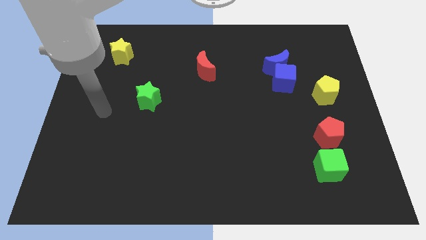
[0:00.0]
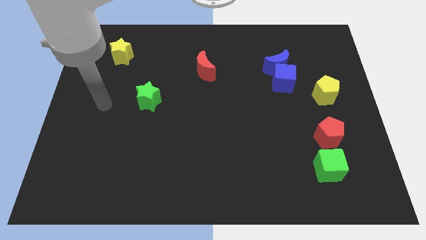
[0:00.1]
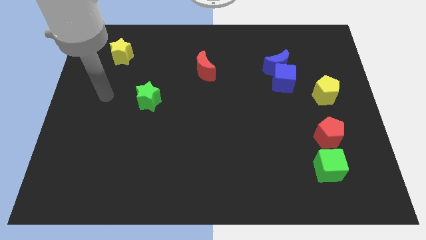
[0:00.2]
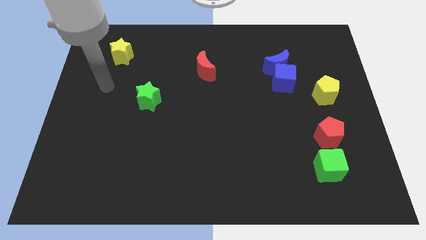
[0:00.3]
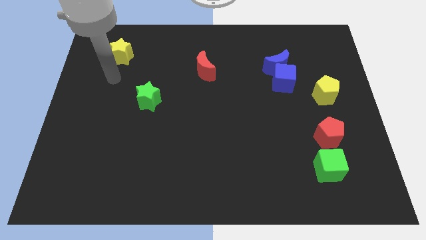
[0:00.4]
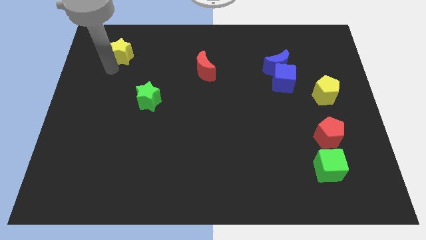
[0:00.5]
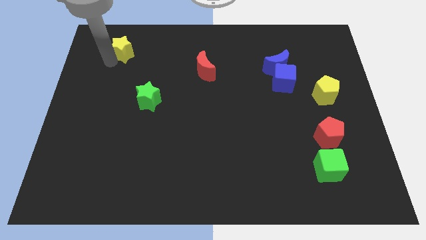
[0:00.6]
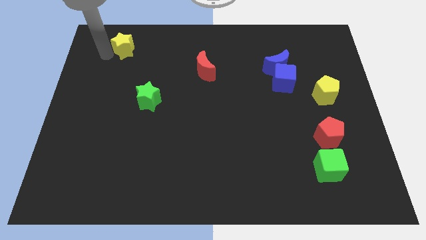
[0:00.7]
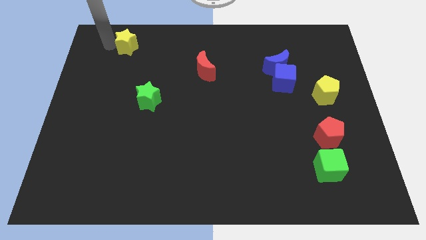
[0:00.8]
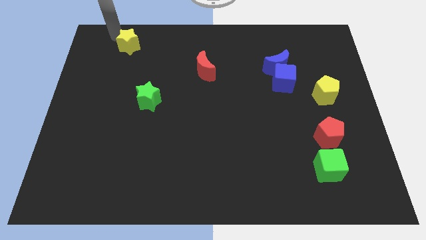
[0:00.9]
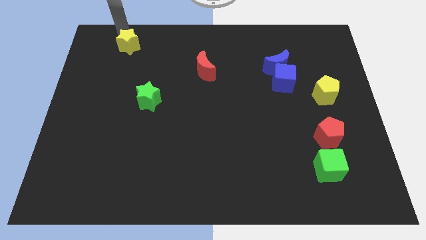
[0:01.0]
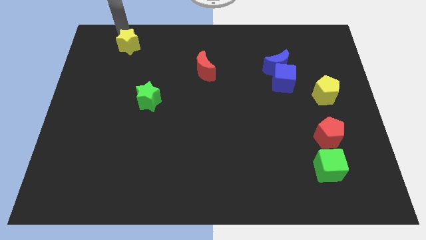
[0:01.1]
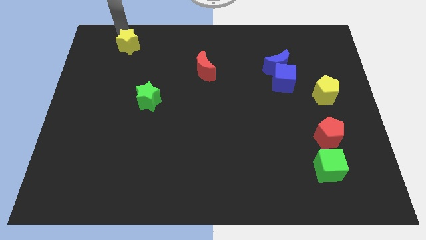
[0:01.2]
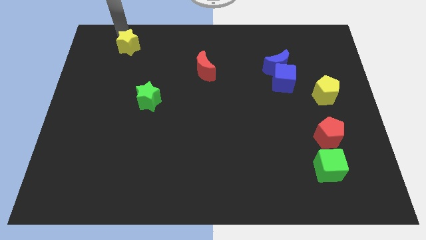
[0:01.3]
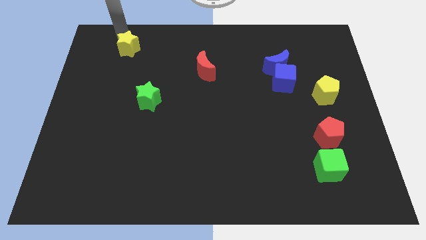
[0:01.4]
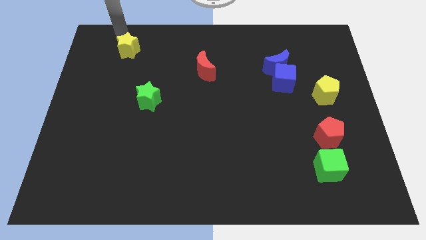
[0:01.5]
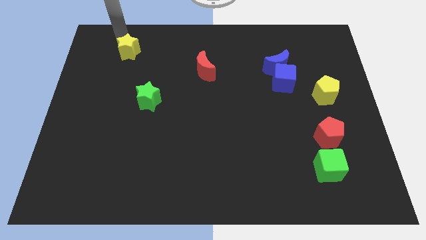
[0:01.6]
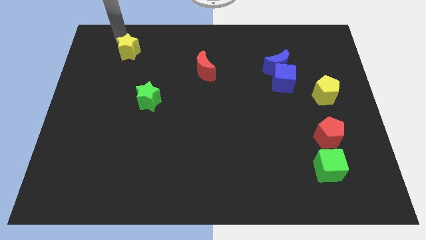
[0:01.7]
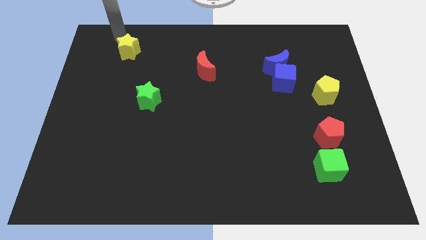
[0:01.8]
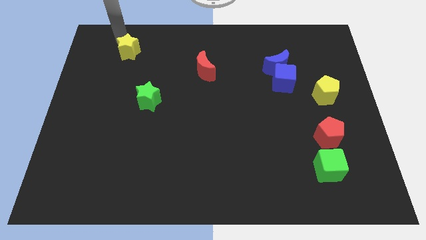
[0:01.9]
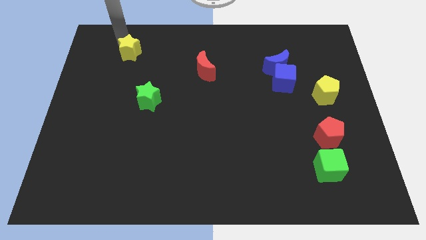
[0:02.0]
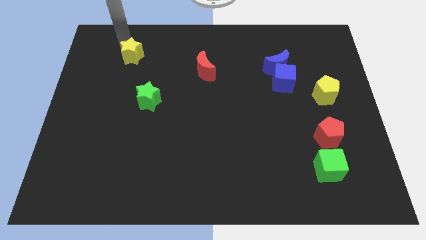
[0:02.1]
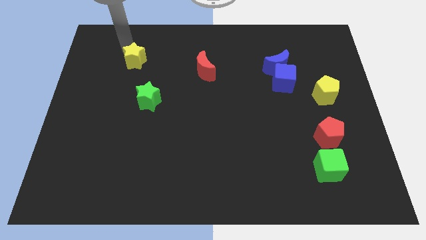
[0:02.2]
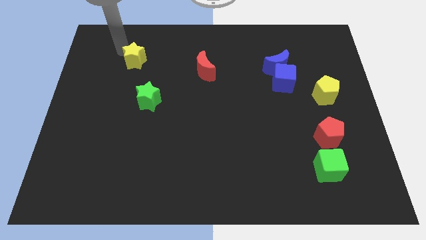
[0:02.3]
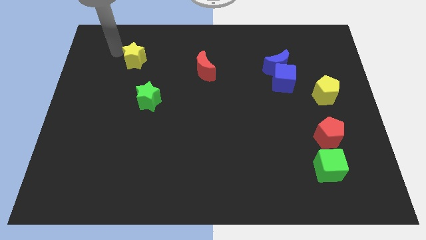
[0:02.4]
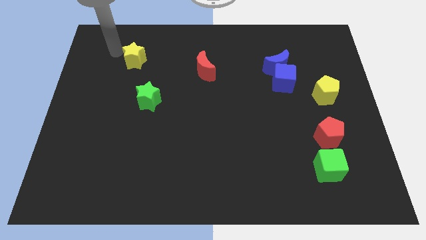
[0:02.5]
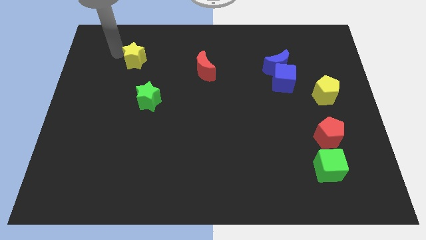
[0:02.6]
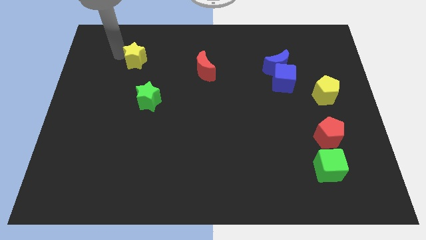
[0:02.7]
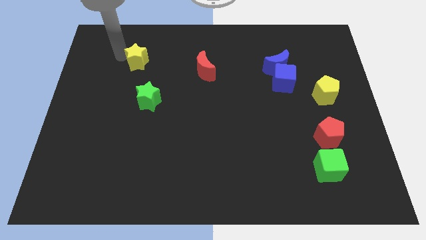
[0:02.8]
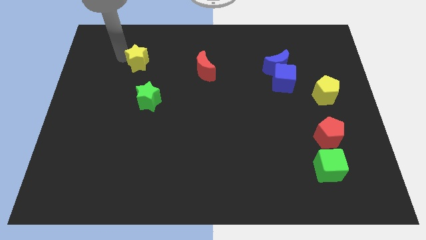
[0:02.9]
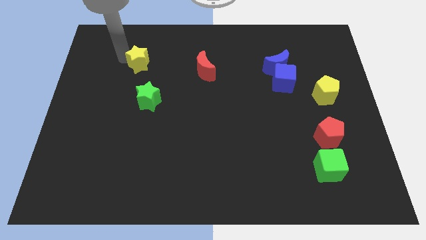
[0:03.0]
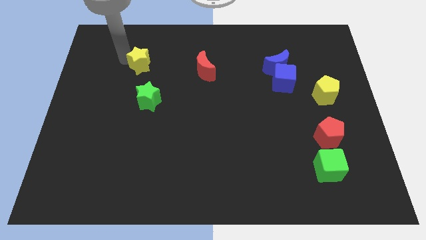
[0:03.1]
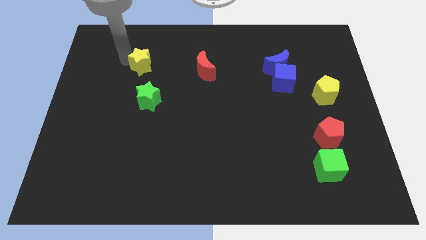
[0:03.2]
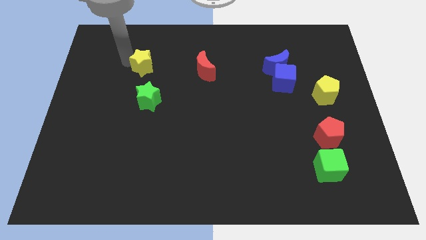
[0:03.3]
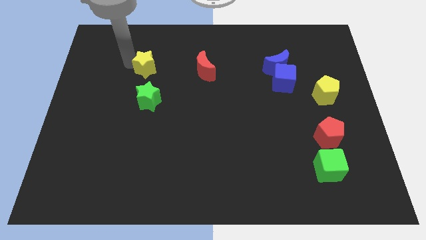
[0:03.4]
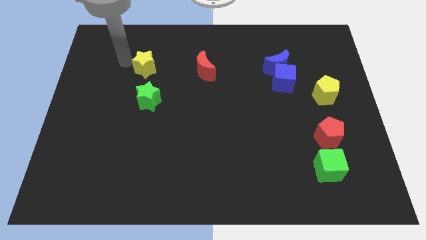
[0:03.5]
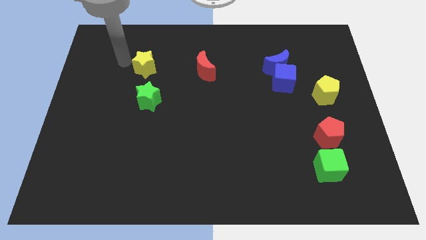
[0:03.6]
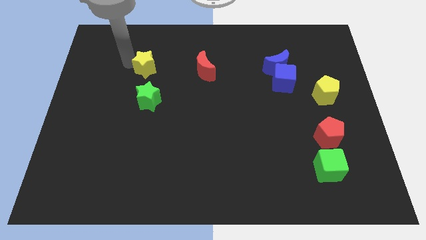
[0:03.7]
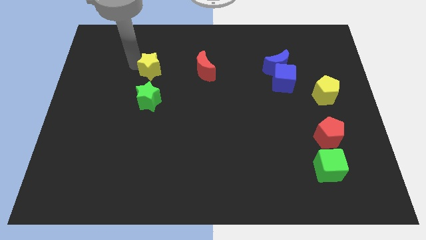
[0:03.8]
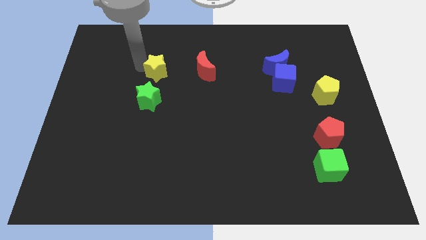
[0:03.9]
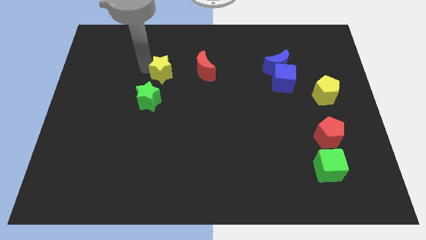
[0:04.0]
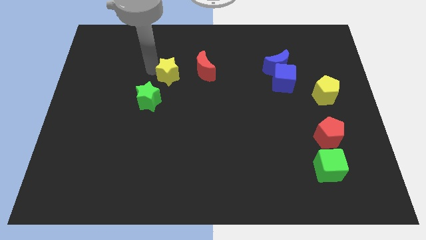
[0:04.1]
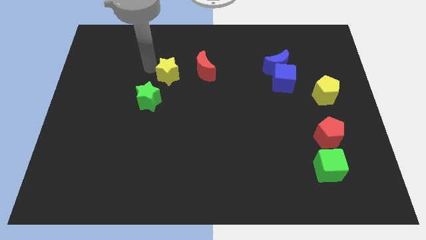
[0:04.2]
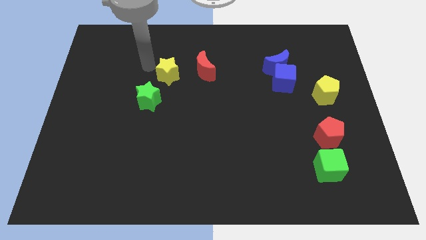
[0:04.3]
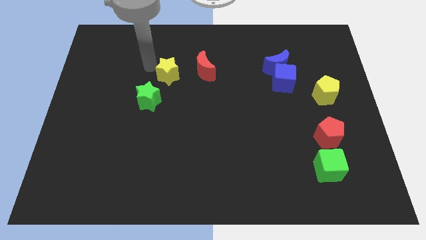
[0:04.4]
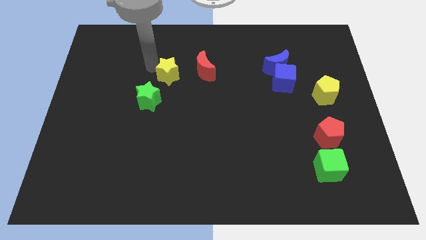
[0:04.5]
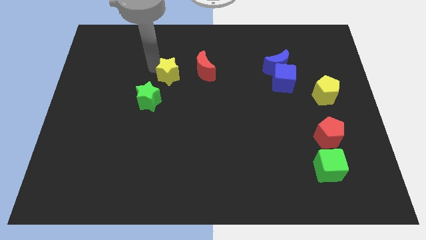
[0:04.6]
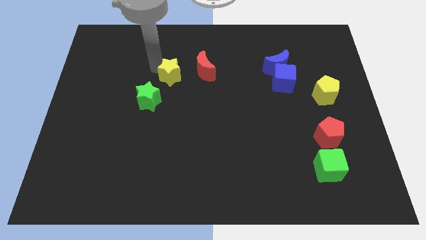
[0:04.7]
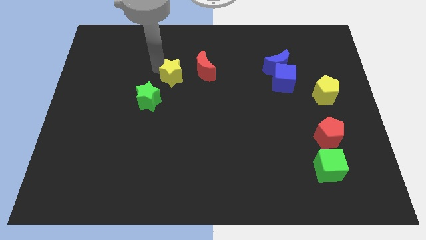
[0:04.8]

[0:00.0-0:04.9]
slide the yellow star to the center of the board

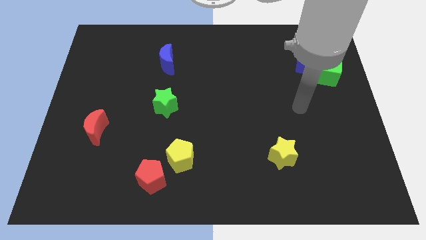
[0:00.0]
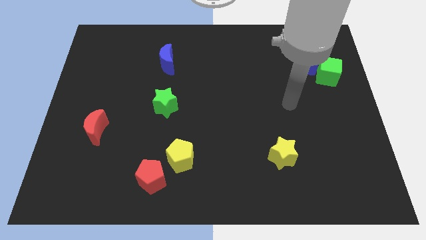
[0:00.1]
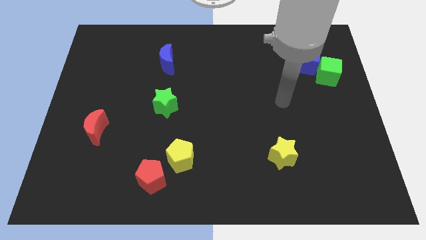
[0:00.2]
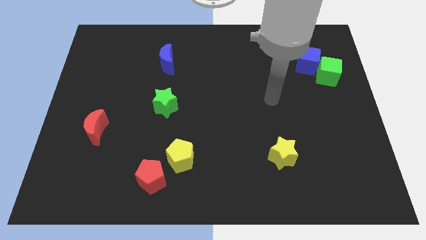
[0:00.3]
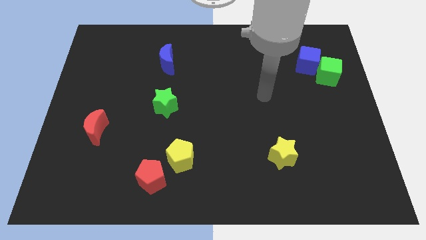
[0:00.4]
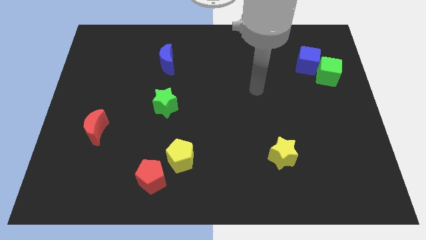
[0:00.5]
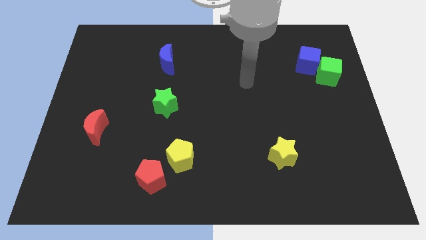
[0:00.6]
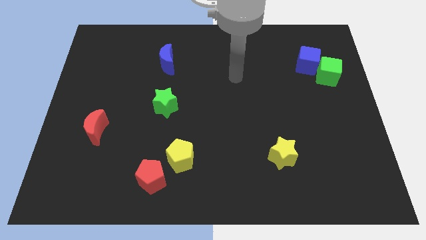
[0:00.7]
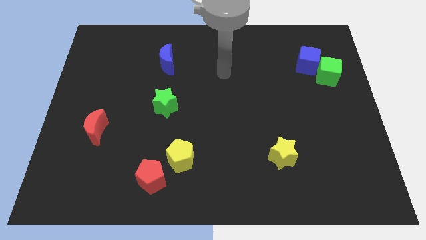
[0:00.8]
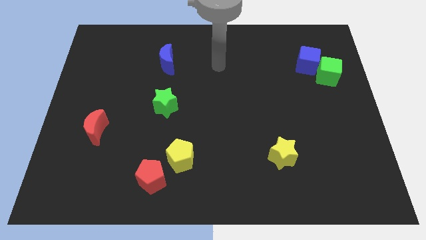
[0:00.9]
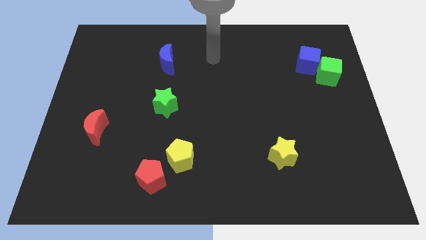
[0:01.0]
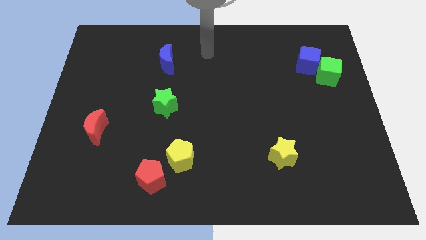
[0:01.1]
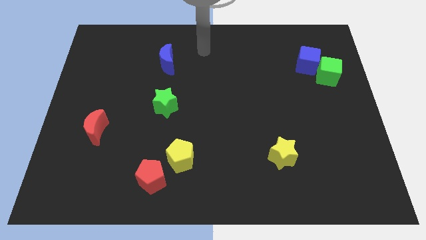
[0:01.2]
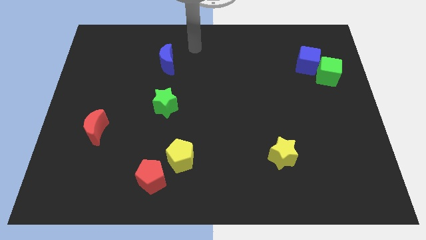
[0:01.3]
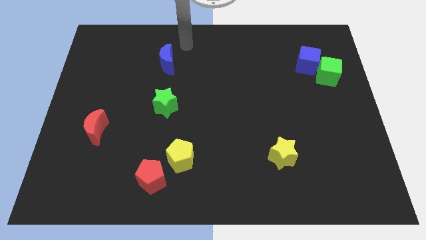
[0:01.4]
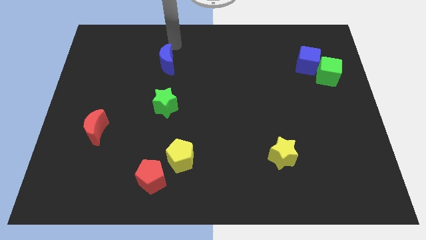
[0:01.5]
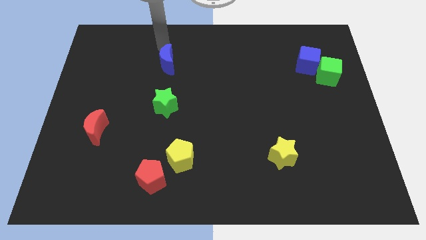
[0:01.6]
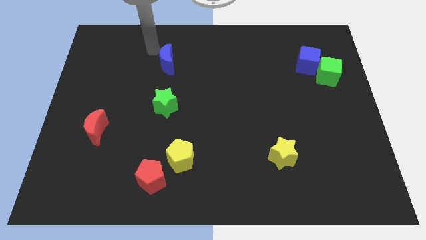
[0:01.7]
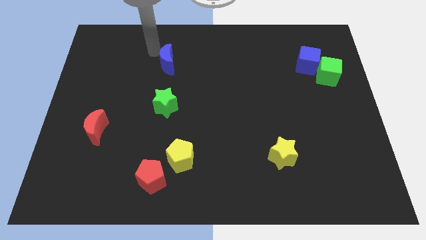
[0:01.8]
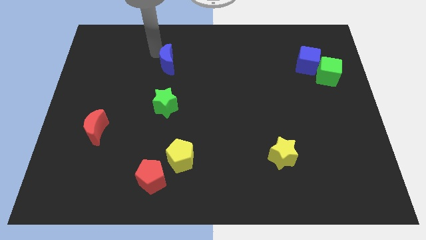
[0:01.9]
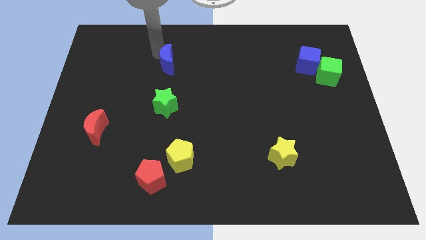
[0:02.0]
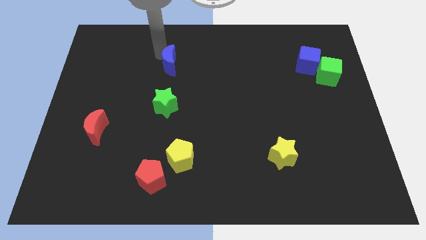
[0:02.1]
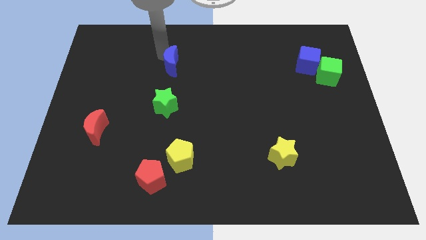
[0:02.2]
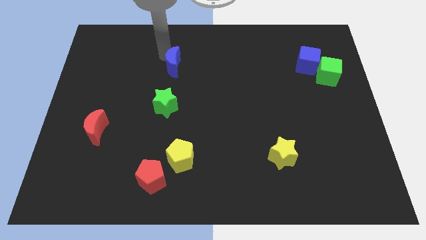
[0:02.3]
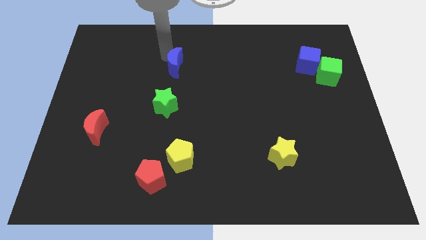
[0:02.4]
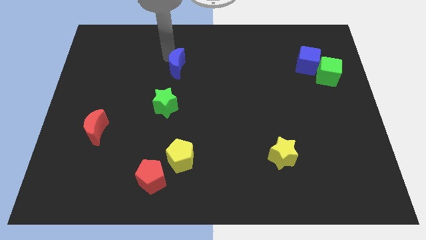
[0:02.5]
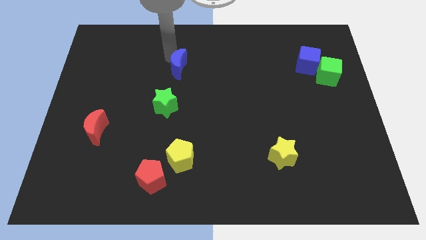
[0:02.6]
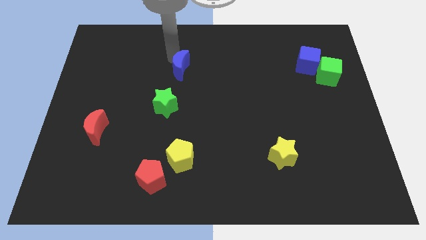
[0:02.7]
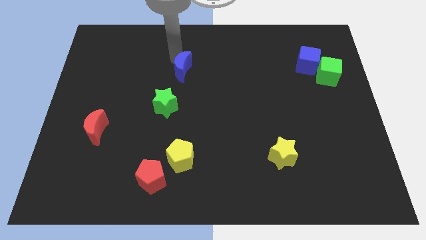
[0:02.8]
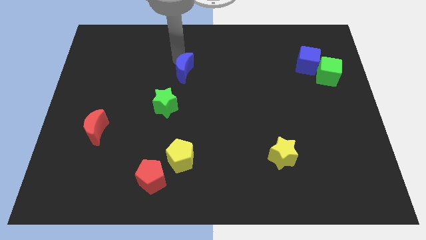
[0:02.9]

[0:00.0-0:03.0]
move the blue moon to the middle of the board
